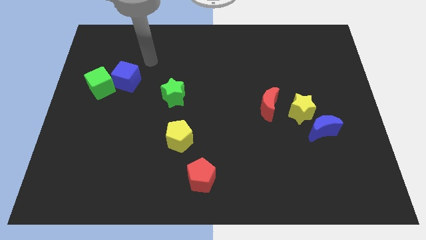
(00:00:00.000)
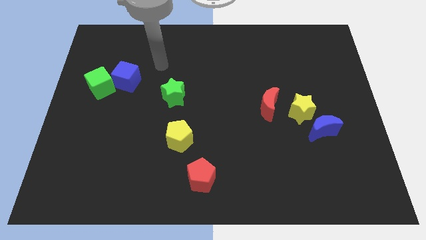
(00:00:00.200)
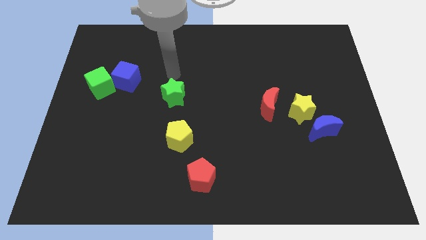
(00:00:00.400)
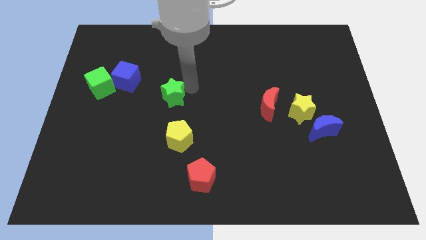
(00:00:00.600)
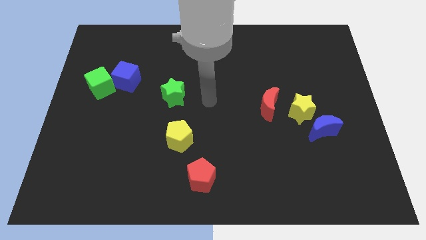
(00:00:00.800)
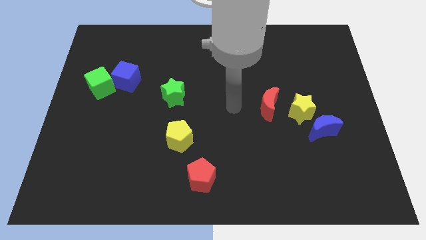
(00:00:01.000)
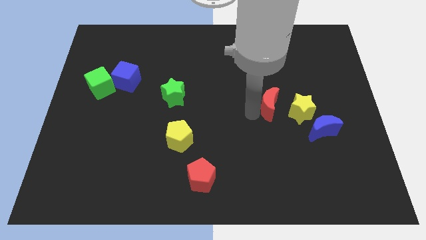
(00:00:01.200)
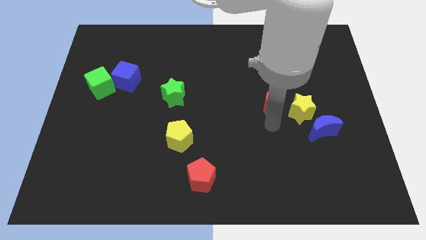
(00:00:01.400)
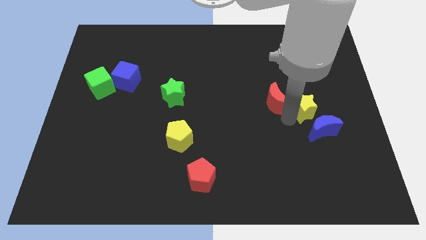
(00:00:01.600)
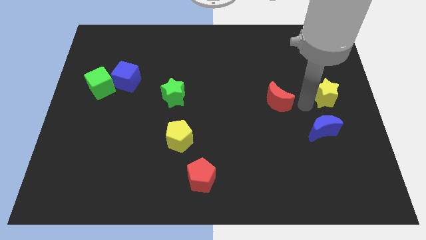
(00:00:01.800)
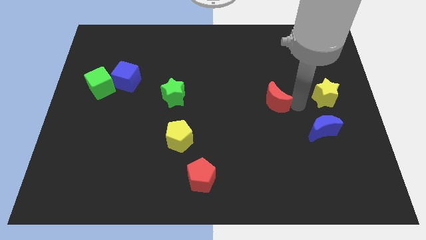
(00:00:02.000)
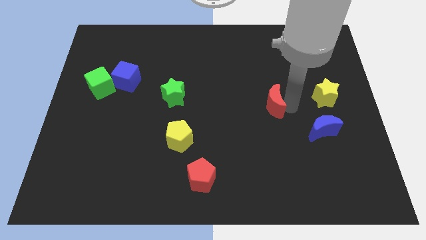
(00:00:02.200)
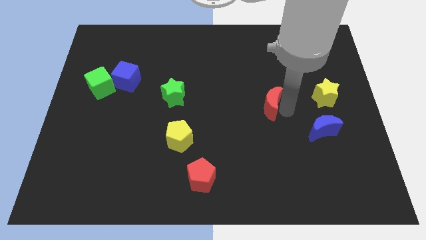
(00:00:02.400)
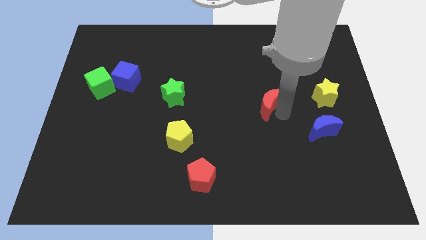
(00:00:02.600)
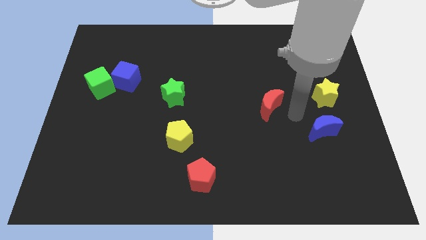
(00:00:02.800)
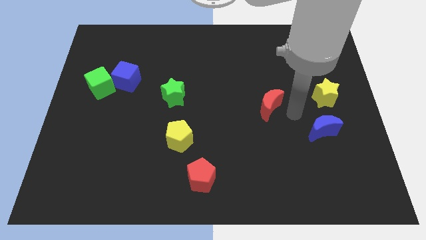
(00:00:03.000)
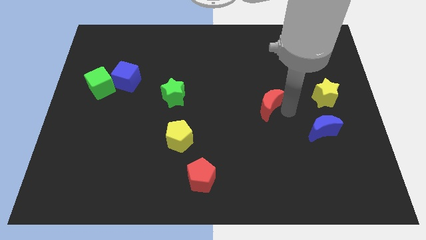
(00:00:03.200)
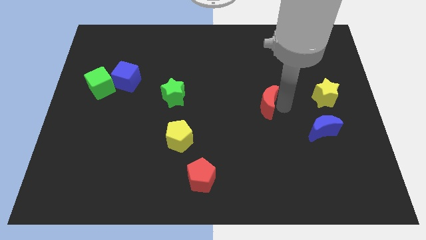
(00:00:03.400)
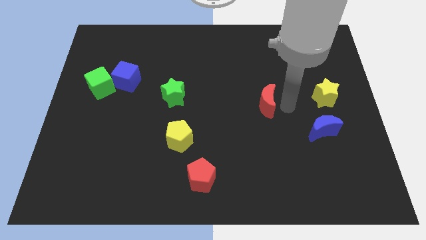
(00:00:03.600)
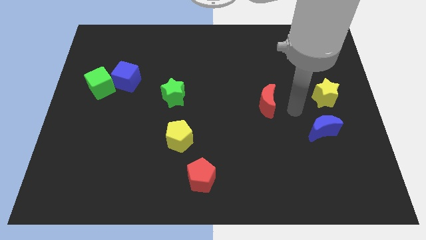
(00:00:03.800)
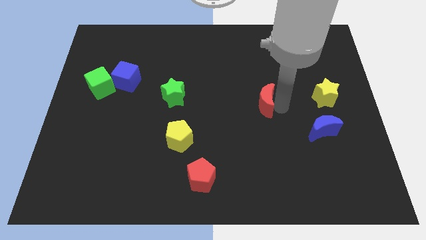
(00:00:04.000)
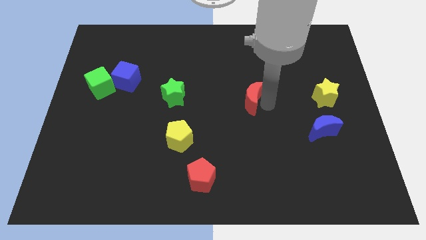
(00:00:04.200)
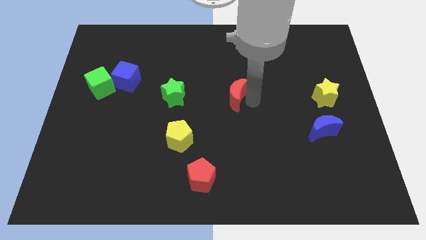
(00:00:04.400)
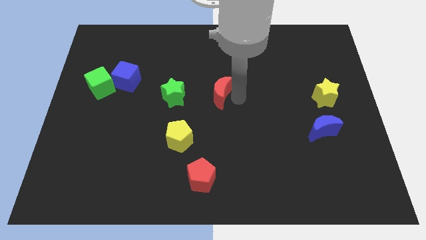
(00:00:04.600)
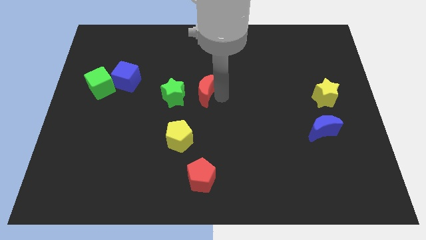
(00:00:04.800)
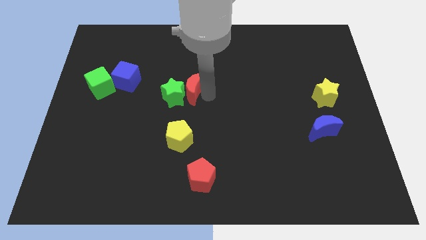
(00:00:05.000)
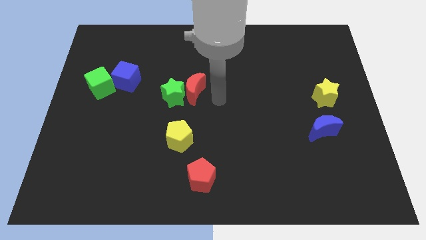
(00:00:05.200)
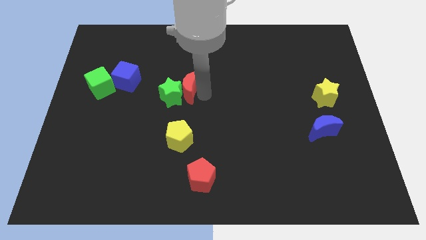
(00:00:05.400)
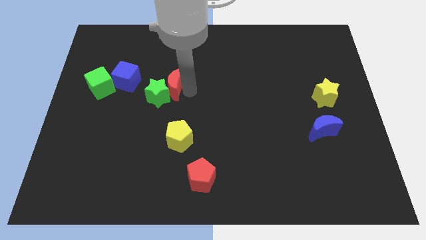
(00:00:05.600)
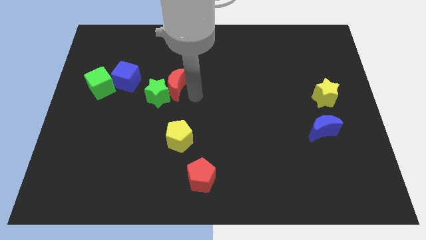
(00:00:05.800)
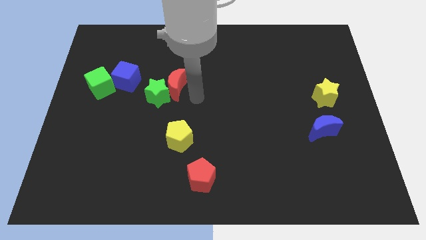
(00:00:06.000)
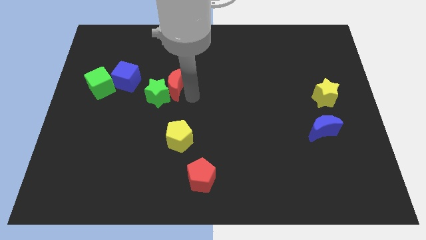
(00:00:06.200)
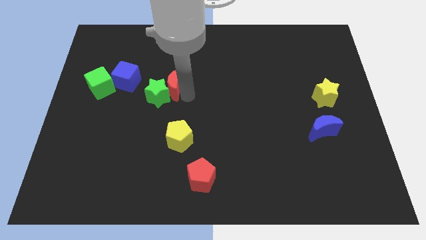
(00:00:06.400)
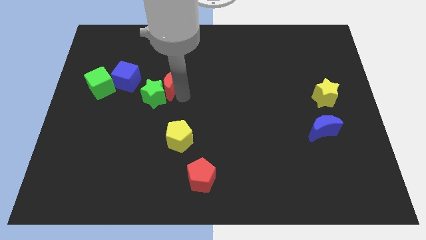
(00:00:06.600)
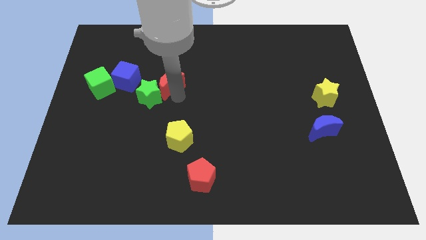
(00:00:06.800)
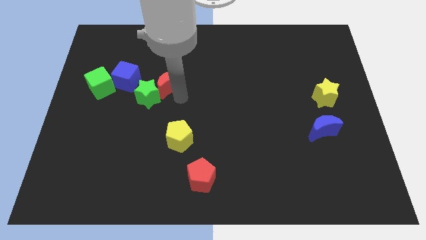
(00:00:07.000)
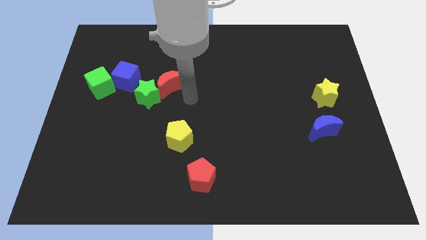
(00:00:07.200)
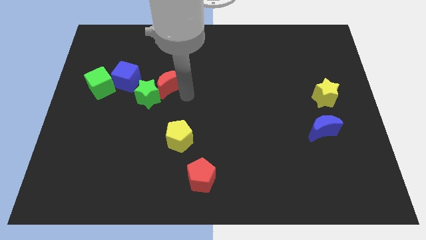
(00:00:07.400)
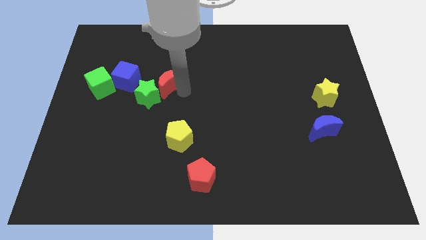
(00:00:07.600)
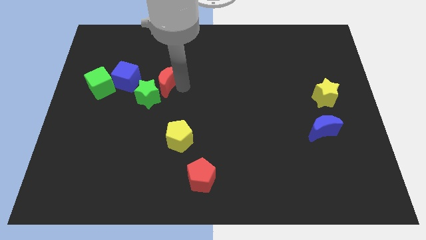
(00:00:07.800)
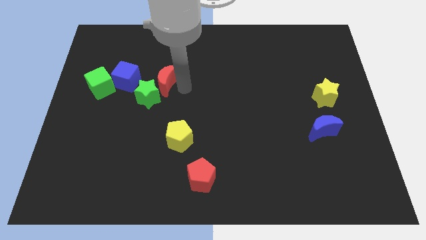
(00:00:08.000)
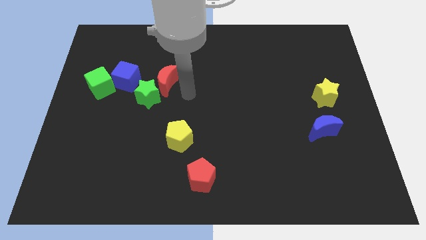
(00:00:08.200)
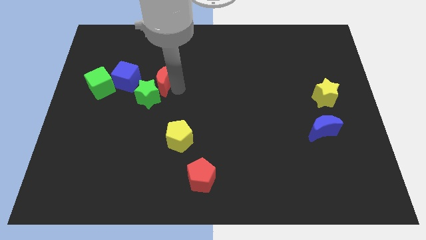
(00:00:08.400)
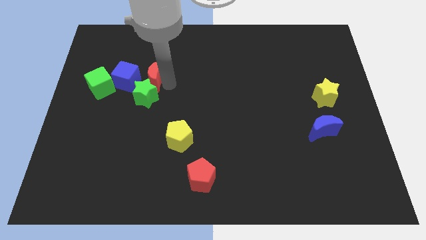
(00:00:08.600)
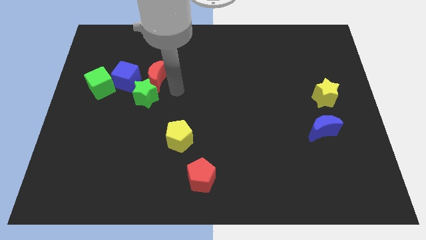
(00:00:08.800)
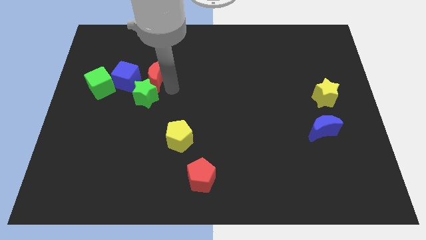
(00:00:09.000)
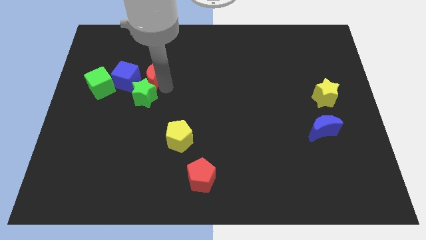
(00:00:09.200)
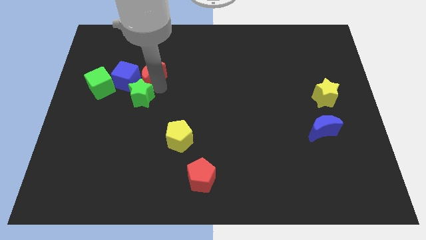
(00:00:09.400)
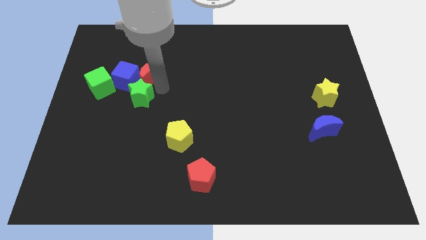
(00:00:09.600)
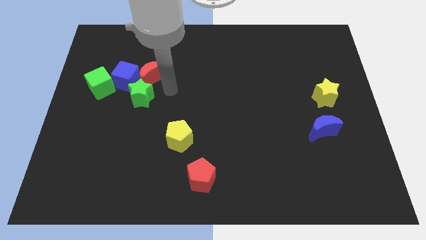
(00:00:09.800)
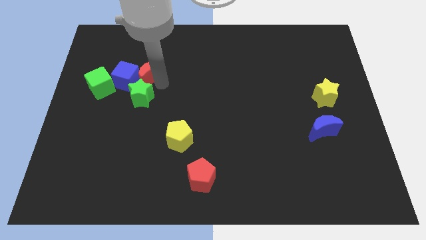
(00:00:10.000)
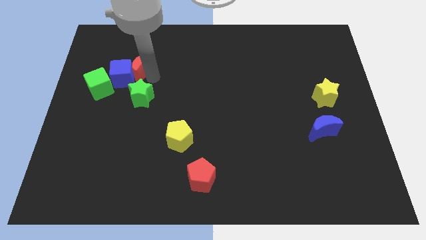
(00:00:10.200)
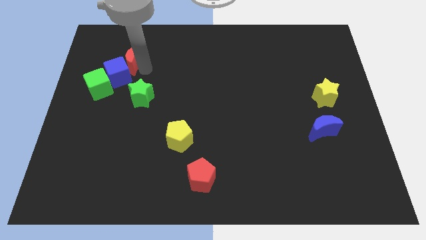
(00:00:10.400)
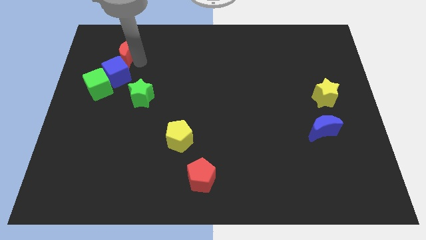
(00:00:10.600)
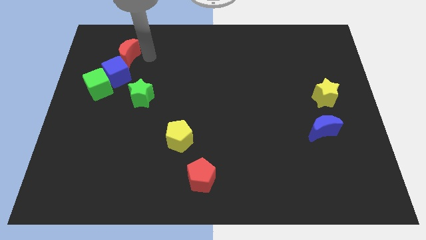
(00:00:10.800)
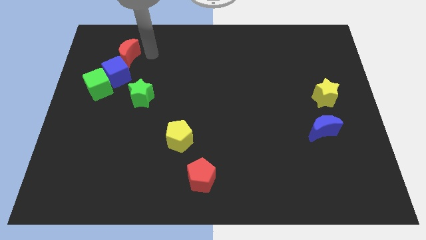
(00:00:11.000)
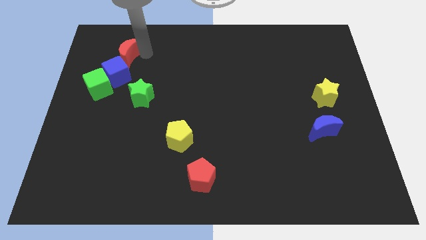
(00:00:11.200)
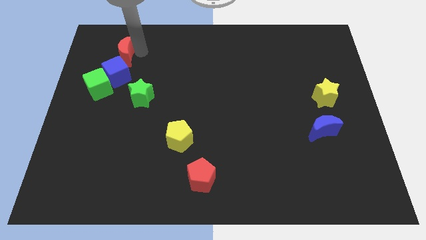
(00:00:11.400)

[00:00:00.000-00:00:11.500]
move the red moon above the green cube

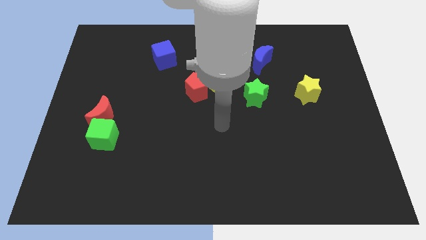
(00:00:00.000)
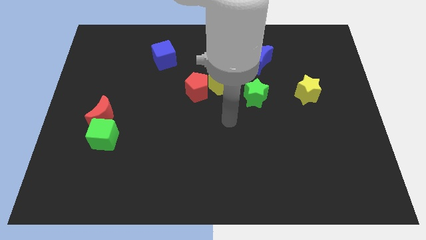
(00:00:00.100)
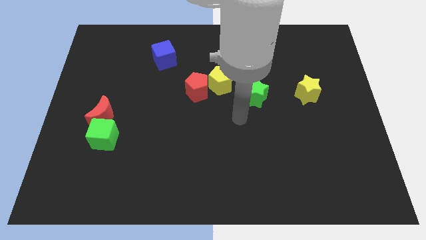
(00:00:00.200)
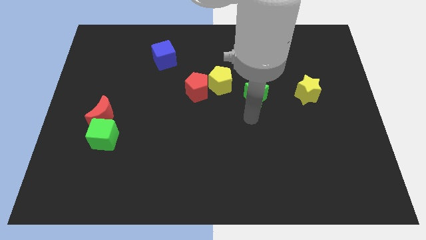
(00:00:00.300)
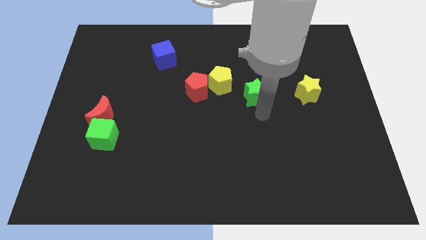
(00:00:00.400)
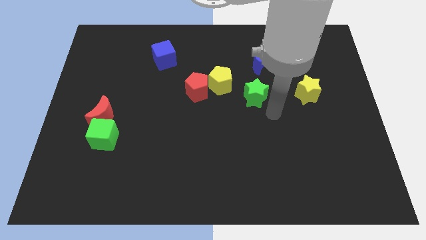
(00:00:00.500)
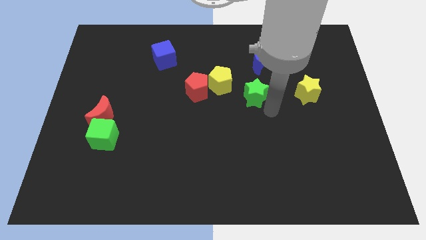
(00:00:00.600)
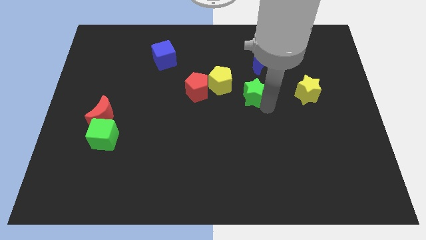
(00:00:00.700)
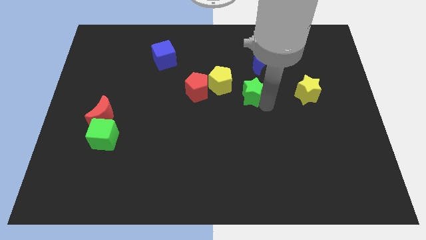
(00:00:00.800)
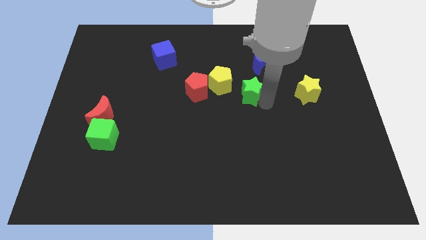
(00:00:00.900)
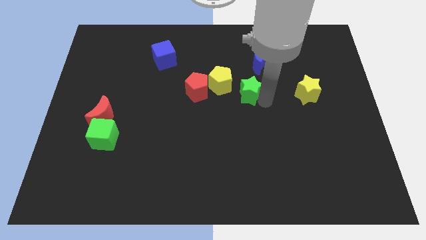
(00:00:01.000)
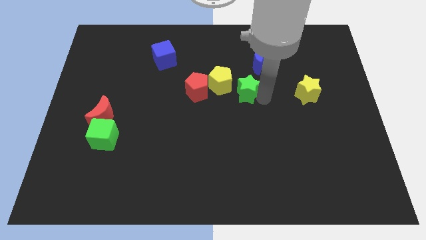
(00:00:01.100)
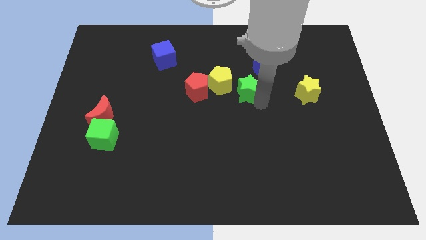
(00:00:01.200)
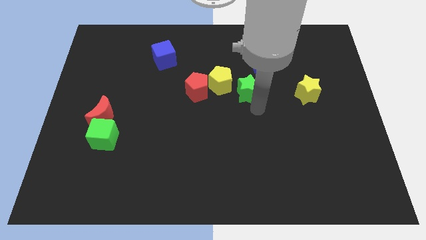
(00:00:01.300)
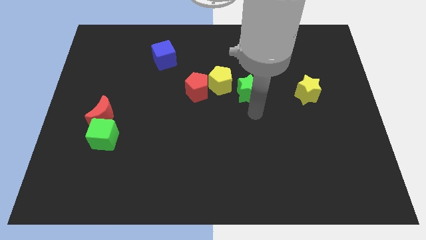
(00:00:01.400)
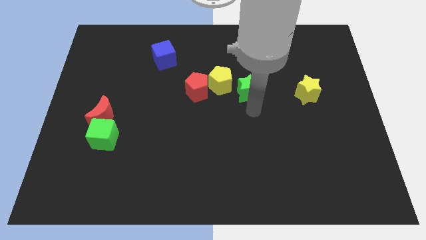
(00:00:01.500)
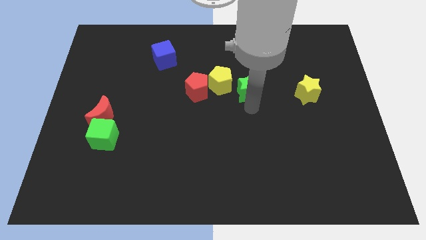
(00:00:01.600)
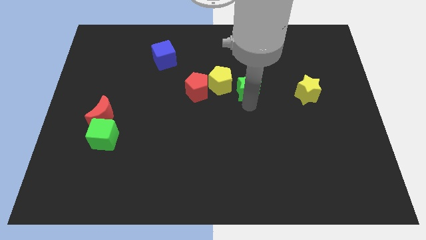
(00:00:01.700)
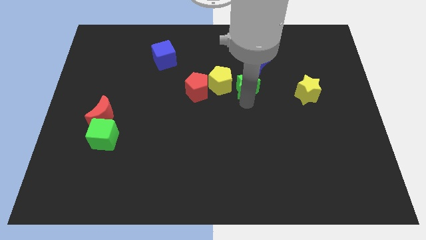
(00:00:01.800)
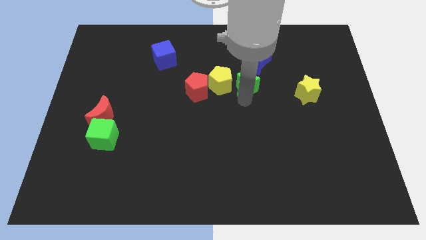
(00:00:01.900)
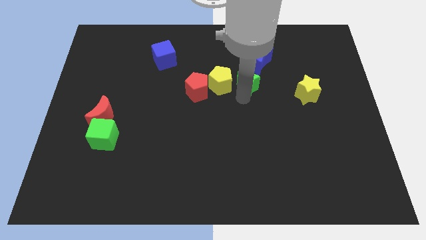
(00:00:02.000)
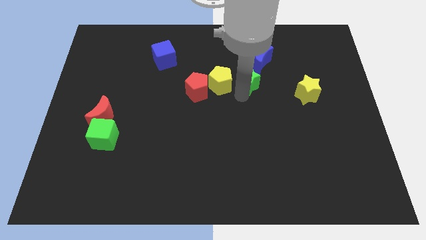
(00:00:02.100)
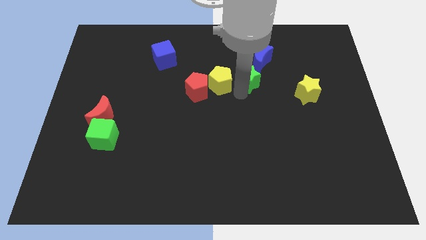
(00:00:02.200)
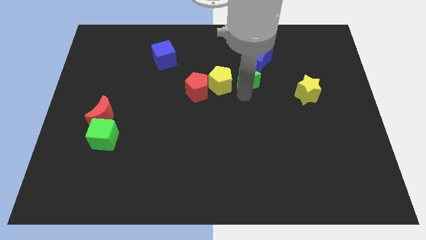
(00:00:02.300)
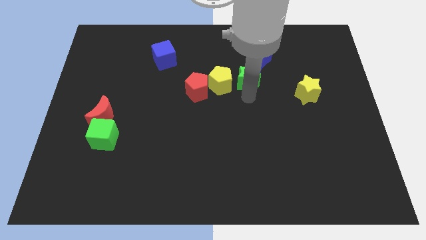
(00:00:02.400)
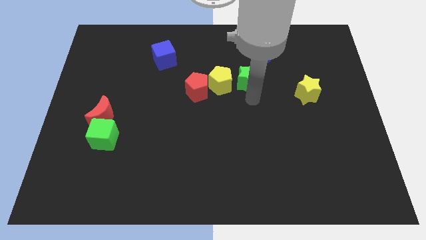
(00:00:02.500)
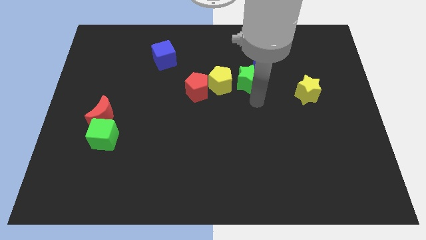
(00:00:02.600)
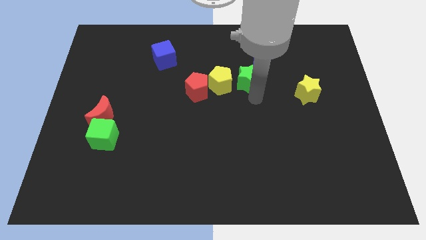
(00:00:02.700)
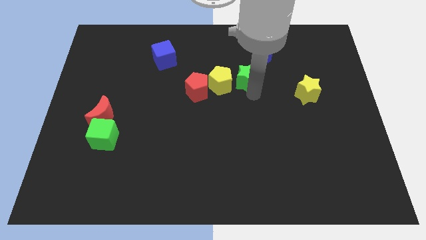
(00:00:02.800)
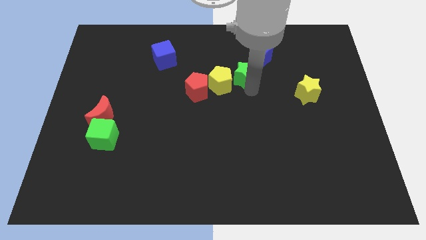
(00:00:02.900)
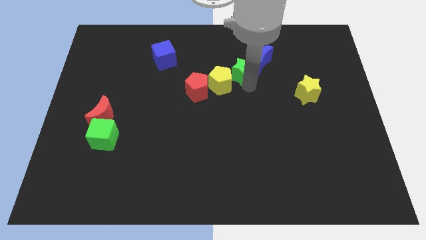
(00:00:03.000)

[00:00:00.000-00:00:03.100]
put the green star to the left side of the blue moon
